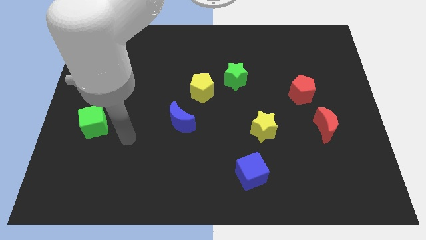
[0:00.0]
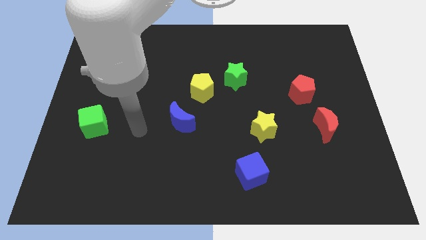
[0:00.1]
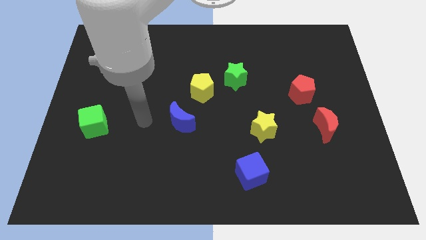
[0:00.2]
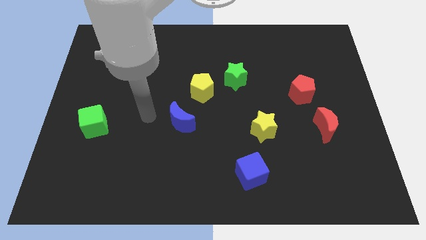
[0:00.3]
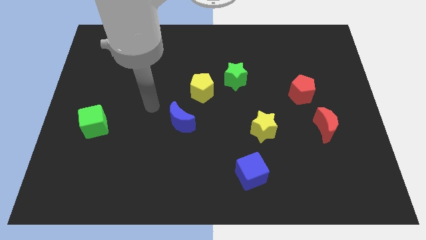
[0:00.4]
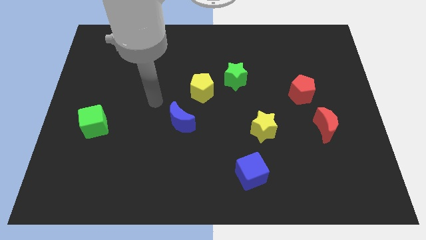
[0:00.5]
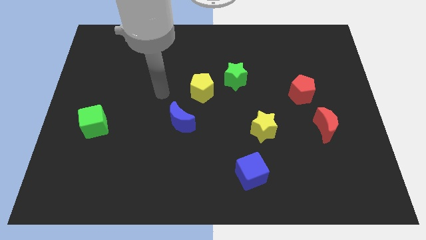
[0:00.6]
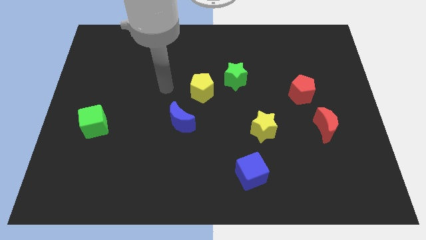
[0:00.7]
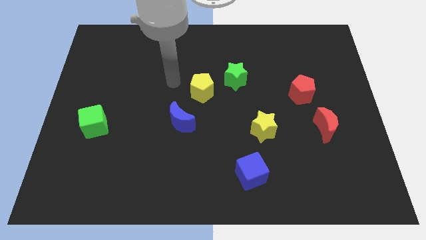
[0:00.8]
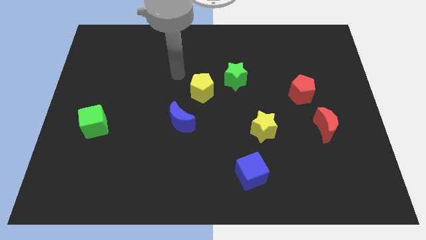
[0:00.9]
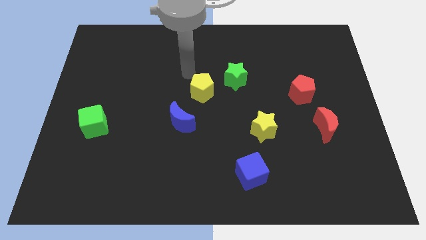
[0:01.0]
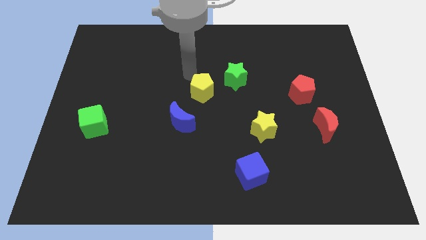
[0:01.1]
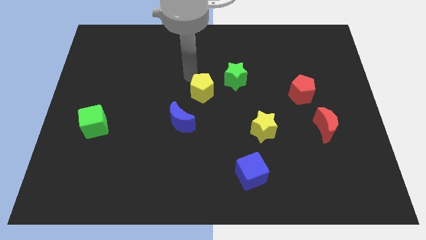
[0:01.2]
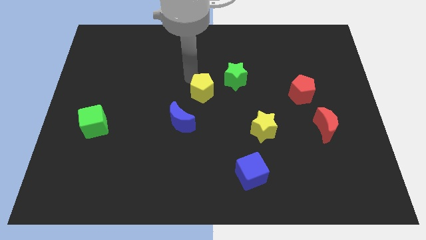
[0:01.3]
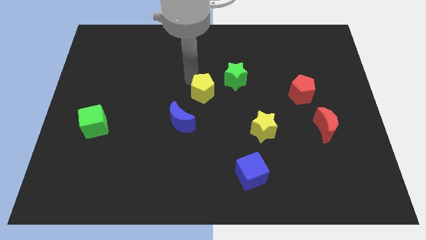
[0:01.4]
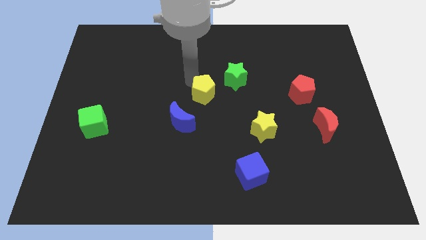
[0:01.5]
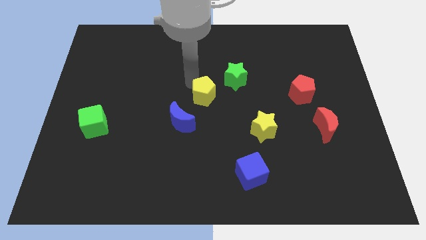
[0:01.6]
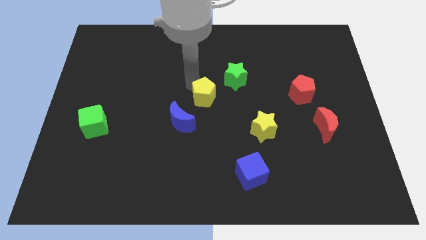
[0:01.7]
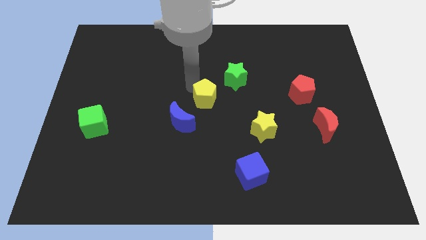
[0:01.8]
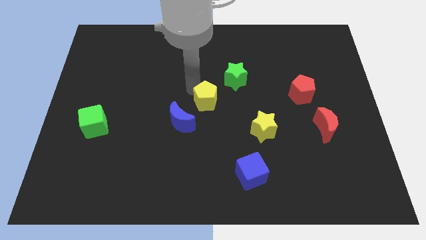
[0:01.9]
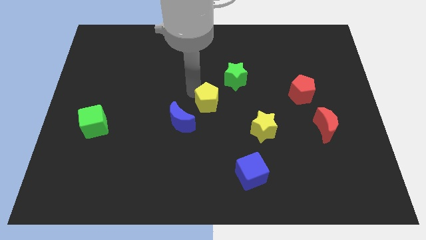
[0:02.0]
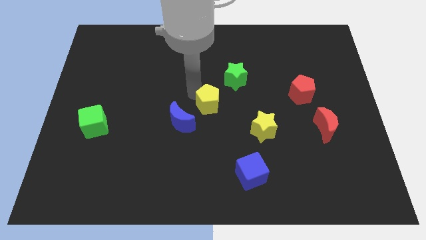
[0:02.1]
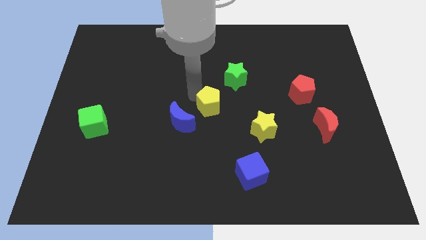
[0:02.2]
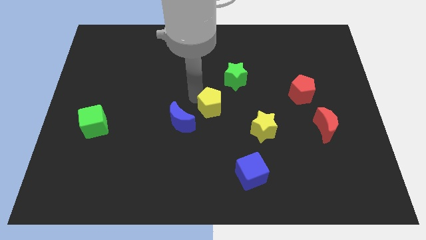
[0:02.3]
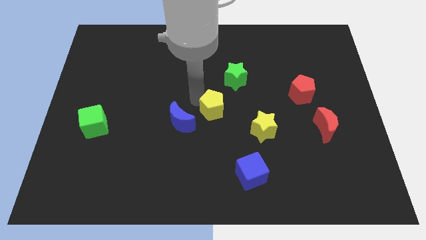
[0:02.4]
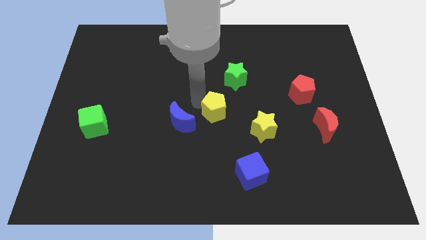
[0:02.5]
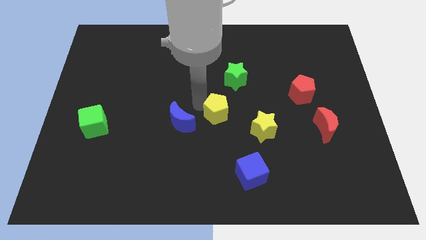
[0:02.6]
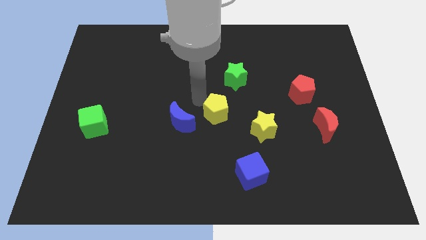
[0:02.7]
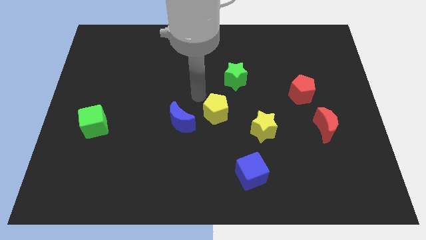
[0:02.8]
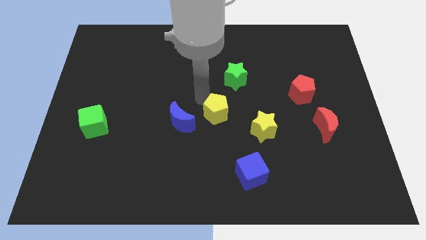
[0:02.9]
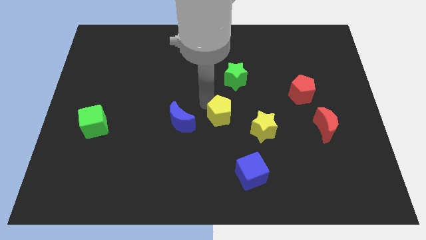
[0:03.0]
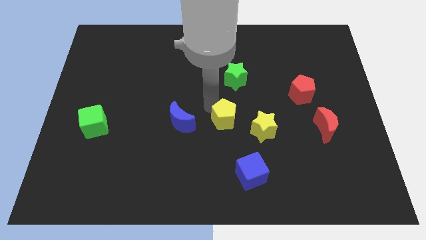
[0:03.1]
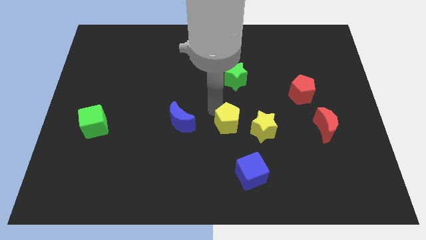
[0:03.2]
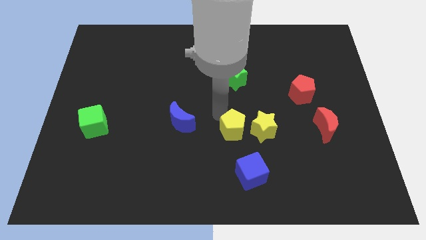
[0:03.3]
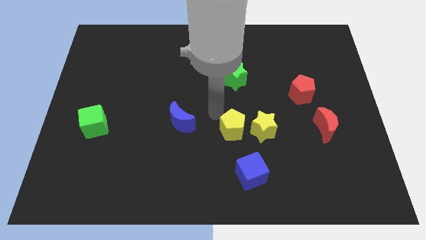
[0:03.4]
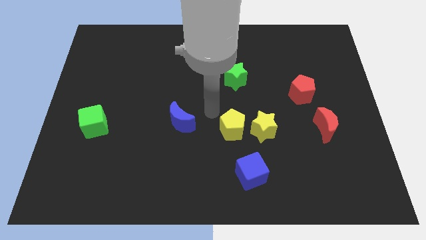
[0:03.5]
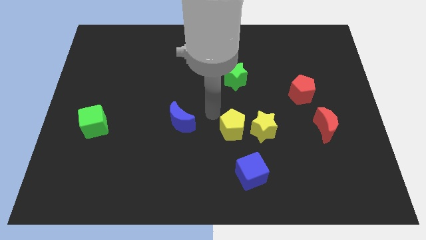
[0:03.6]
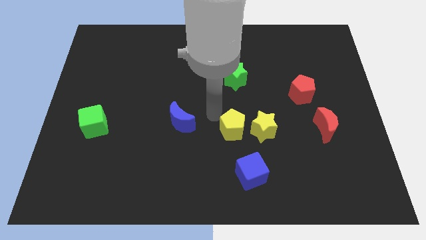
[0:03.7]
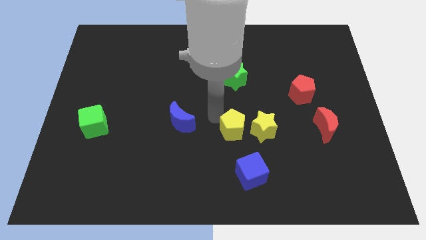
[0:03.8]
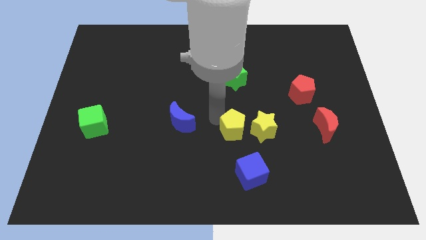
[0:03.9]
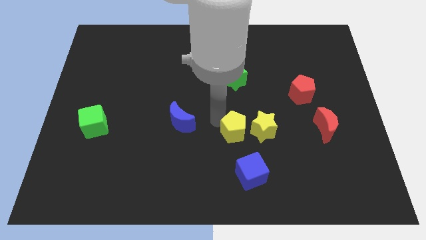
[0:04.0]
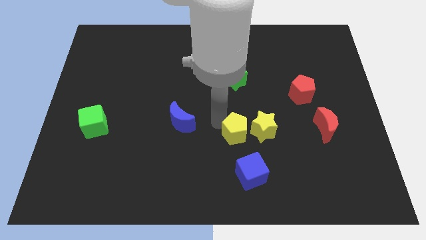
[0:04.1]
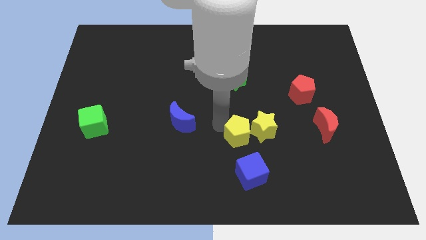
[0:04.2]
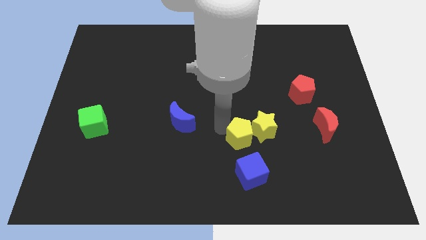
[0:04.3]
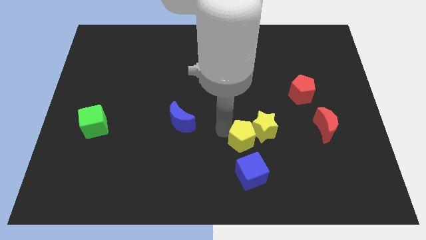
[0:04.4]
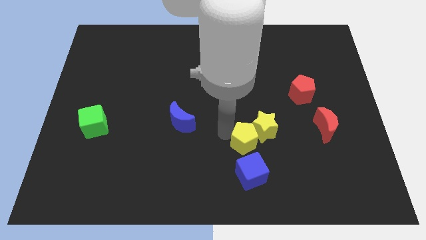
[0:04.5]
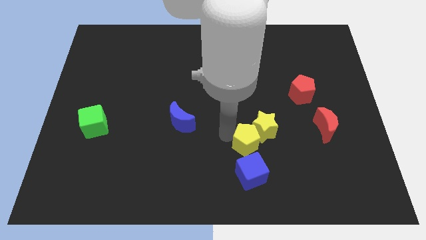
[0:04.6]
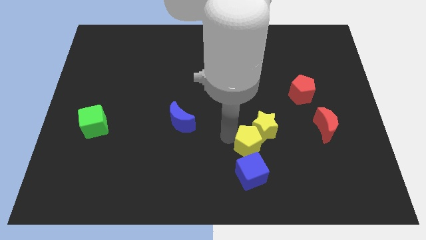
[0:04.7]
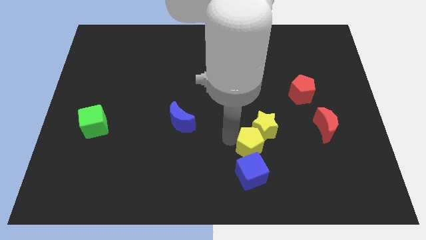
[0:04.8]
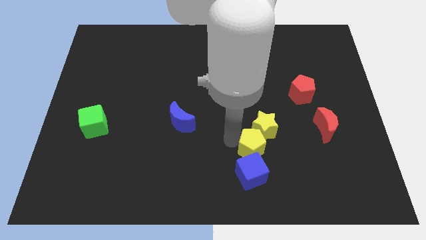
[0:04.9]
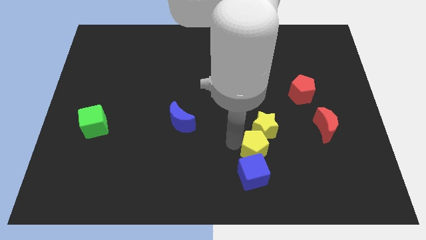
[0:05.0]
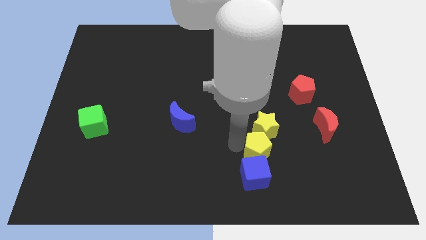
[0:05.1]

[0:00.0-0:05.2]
slide the yellow pentagon diagonally downwards and to the right

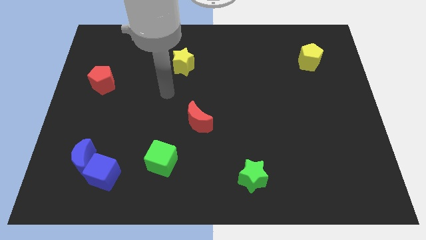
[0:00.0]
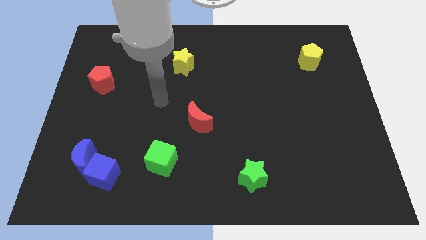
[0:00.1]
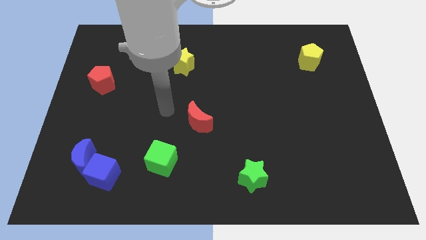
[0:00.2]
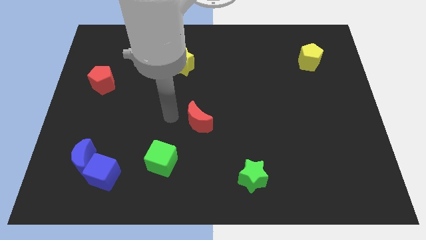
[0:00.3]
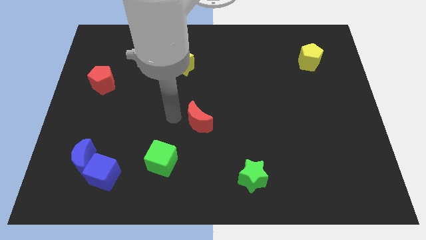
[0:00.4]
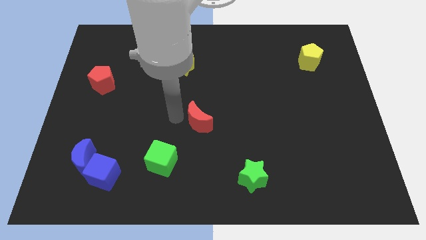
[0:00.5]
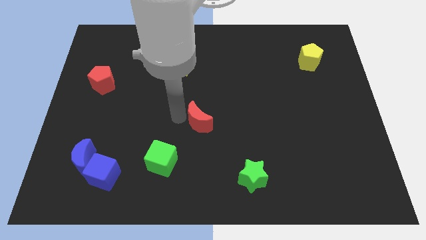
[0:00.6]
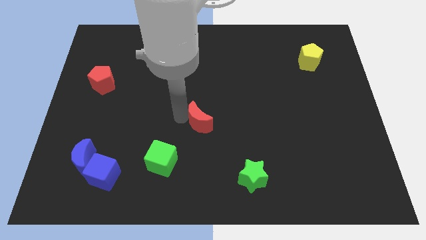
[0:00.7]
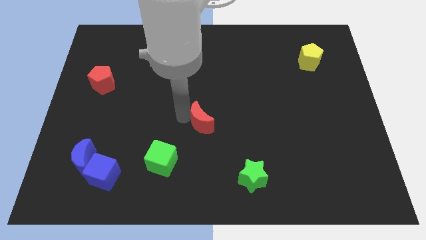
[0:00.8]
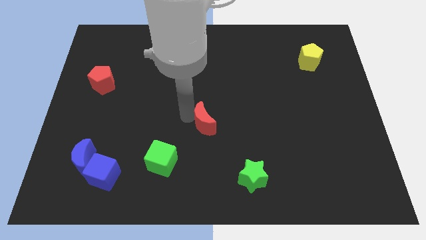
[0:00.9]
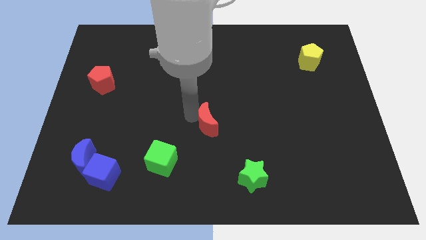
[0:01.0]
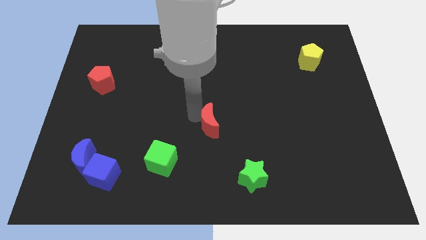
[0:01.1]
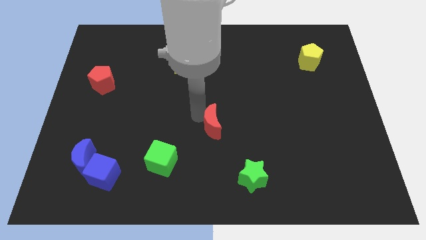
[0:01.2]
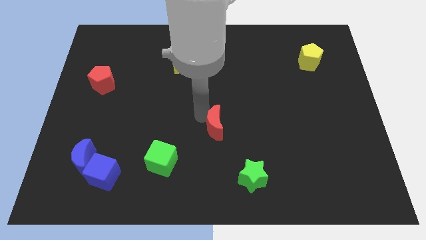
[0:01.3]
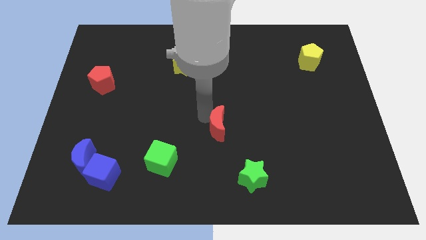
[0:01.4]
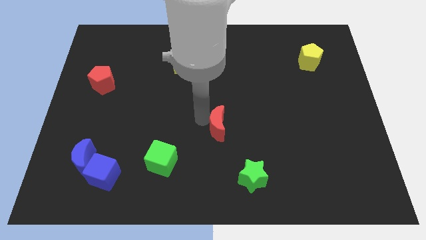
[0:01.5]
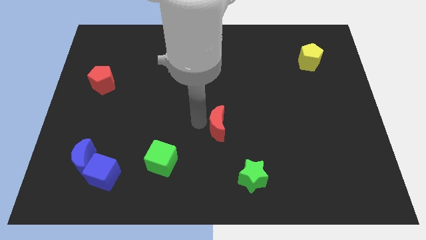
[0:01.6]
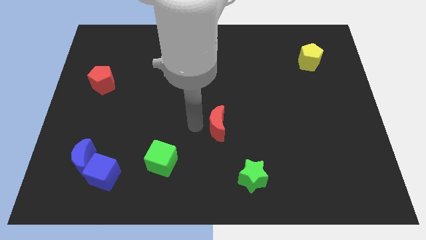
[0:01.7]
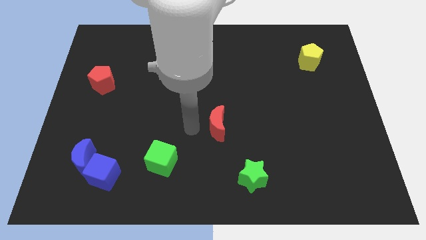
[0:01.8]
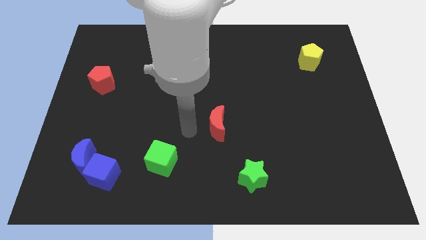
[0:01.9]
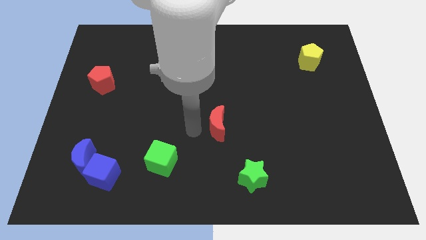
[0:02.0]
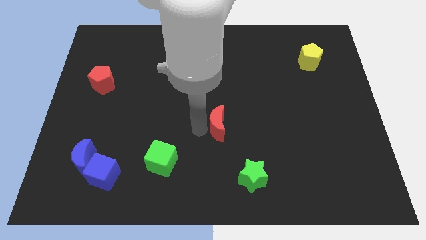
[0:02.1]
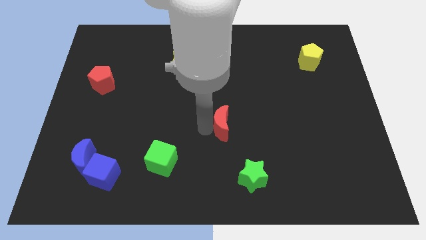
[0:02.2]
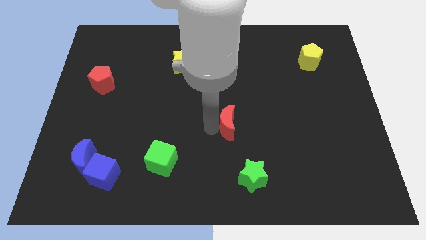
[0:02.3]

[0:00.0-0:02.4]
slightly move the red moon to the right

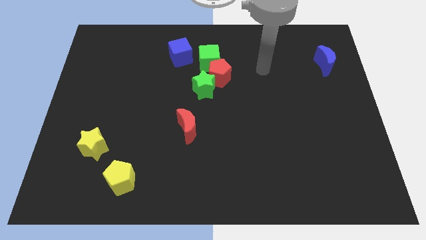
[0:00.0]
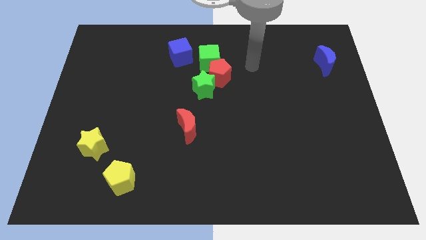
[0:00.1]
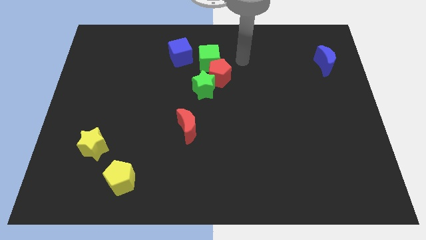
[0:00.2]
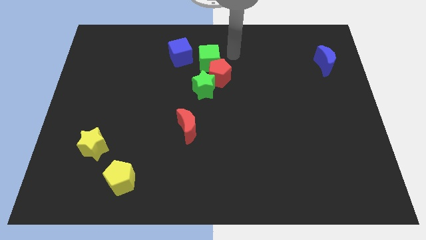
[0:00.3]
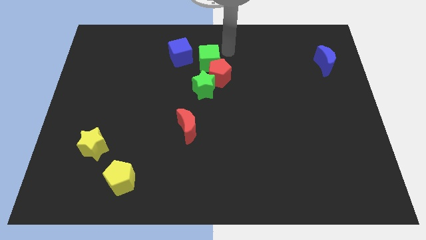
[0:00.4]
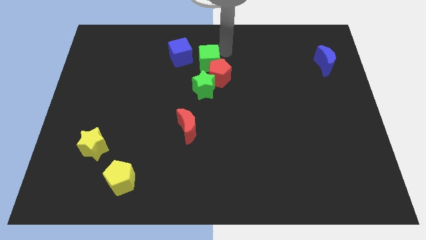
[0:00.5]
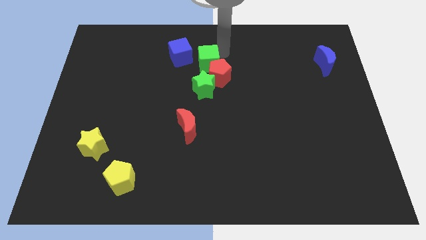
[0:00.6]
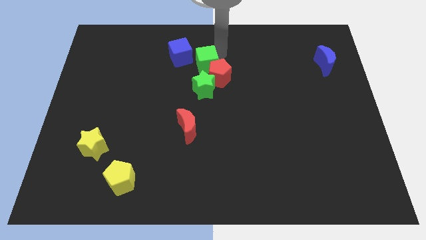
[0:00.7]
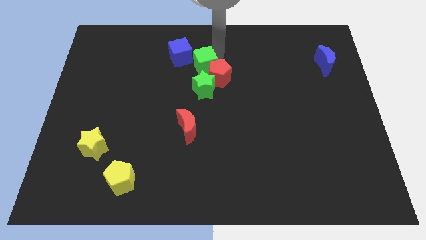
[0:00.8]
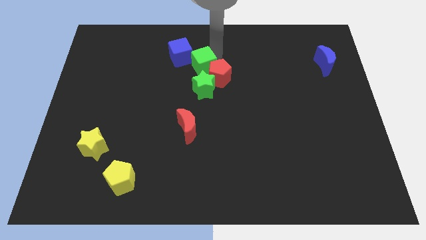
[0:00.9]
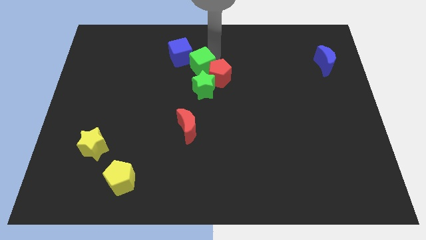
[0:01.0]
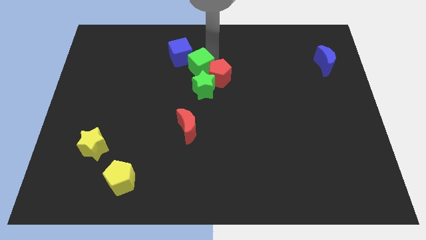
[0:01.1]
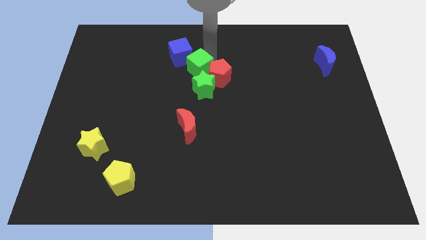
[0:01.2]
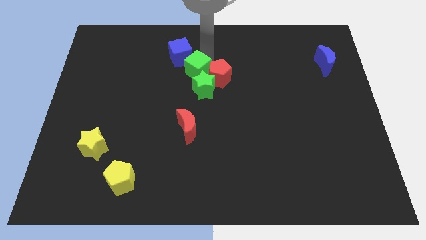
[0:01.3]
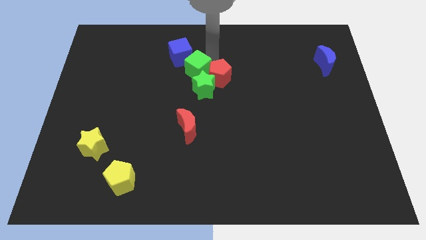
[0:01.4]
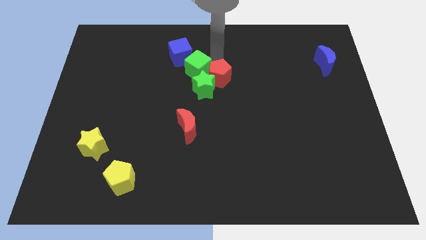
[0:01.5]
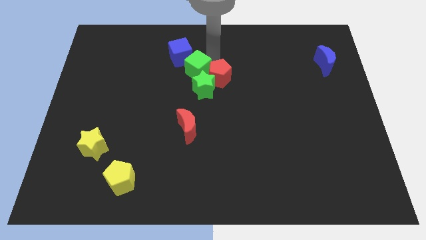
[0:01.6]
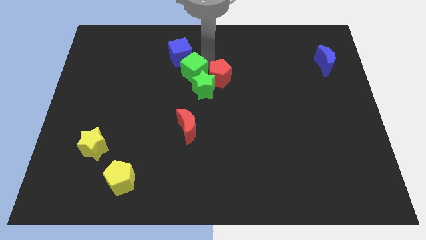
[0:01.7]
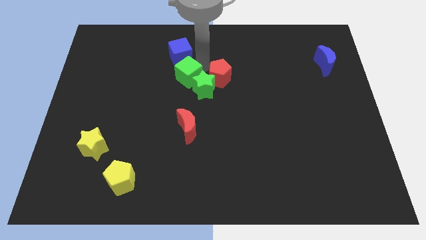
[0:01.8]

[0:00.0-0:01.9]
slightly slide the green cube down and to the left diagonally
